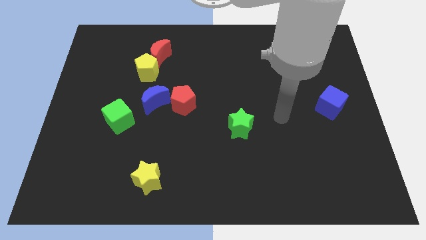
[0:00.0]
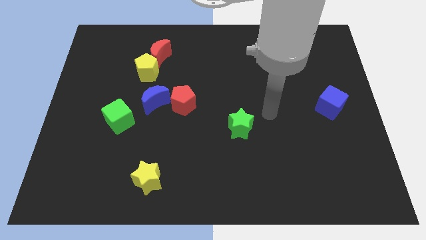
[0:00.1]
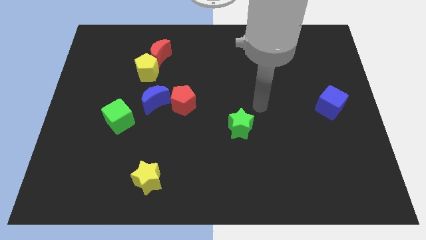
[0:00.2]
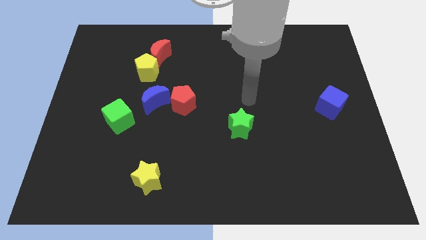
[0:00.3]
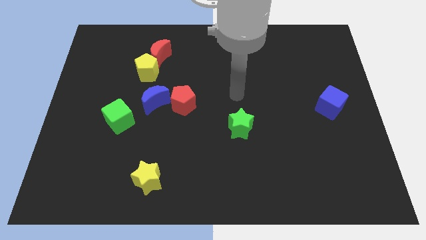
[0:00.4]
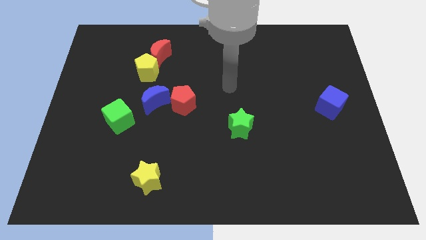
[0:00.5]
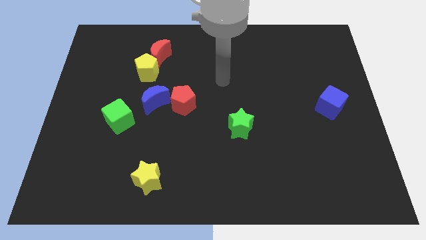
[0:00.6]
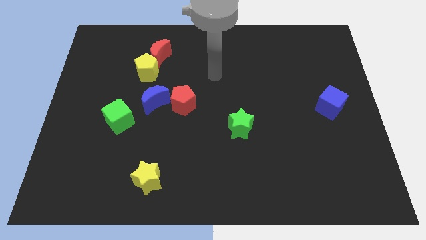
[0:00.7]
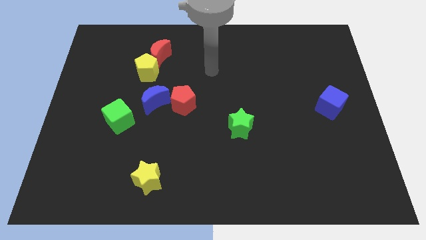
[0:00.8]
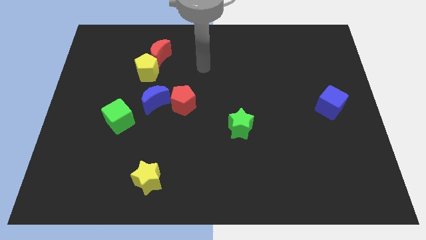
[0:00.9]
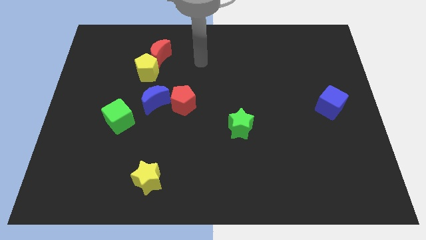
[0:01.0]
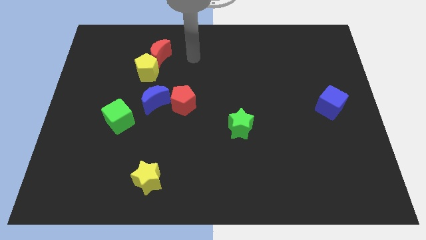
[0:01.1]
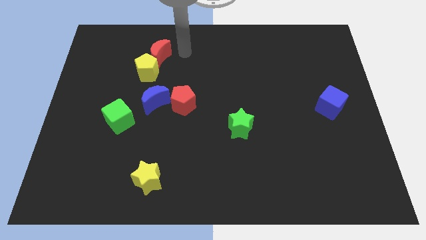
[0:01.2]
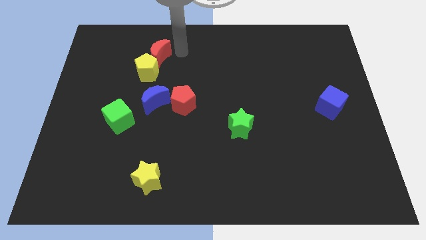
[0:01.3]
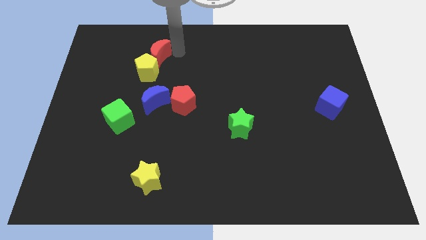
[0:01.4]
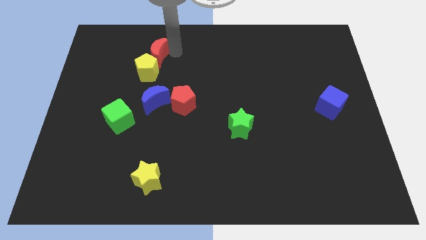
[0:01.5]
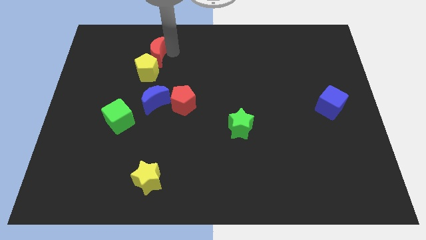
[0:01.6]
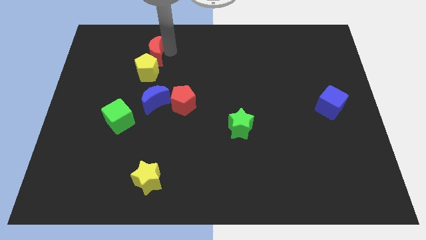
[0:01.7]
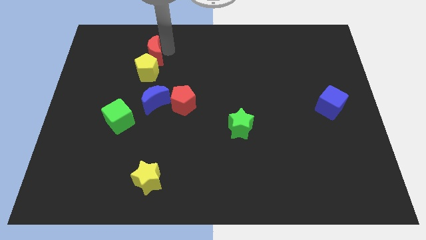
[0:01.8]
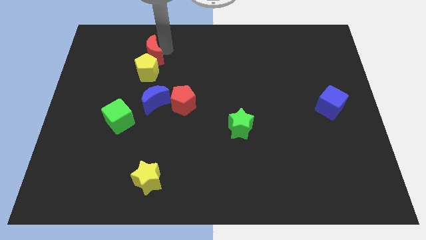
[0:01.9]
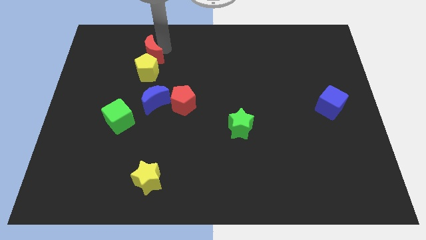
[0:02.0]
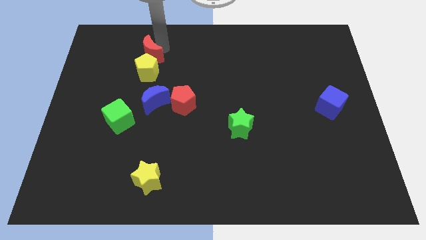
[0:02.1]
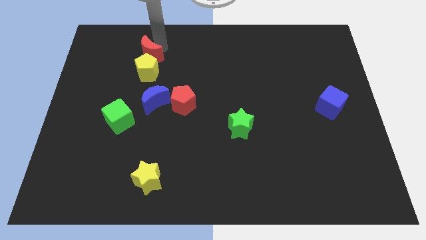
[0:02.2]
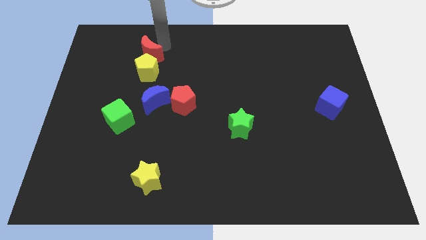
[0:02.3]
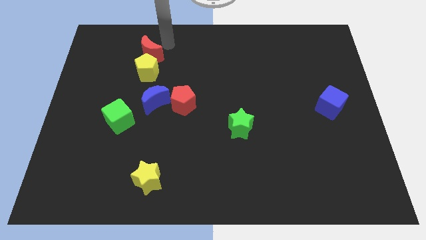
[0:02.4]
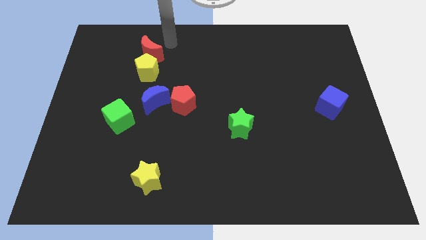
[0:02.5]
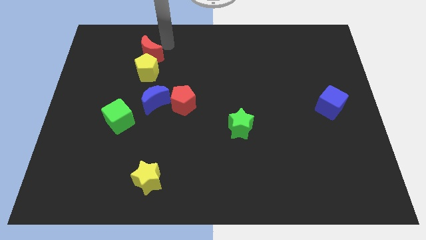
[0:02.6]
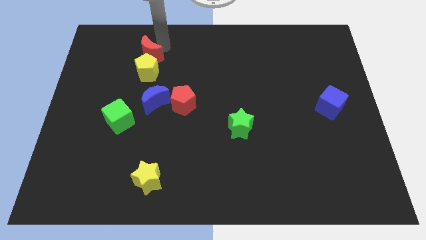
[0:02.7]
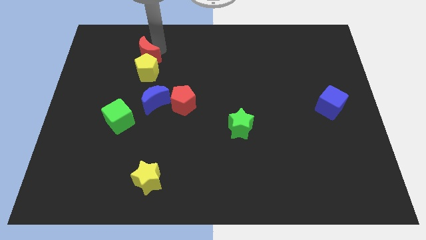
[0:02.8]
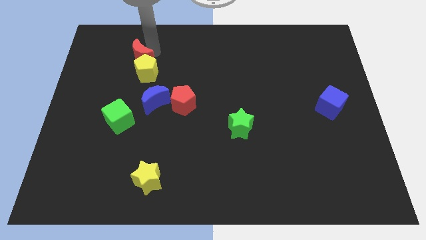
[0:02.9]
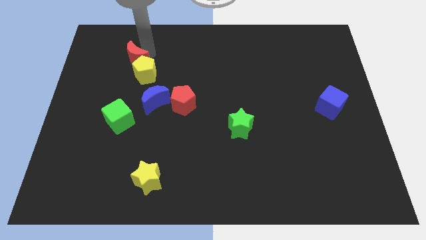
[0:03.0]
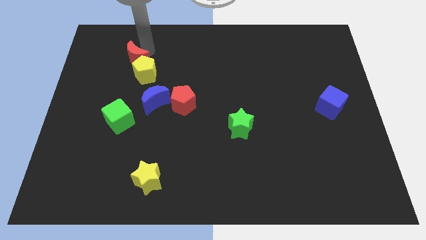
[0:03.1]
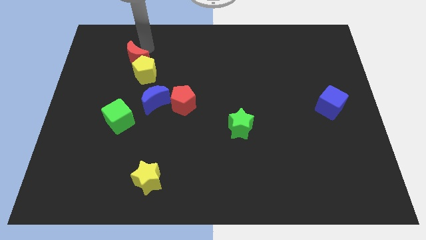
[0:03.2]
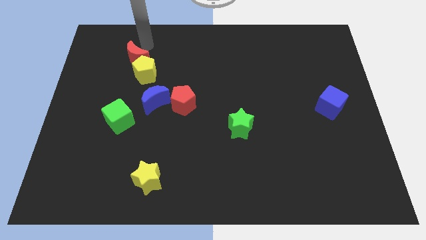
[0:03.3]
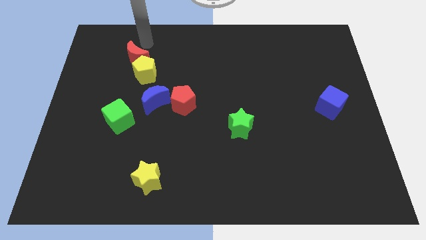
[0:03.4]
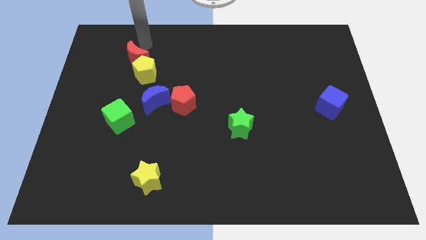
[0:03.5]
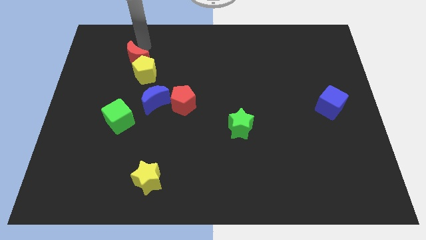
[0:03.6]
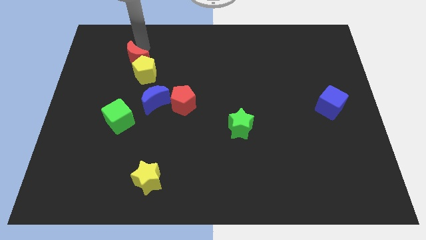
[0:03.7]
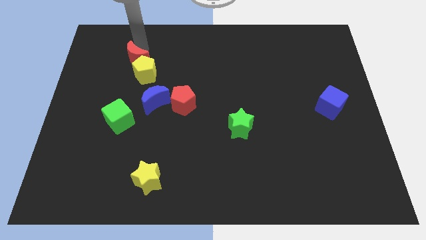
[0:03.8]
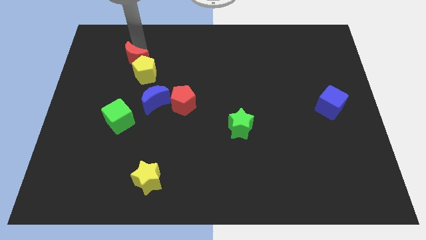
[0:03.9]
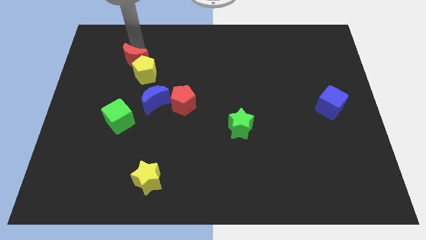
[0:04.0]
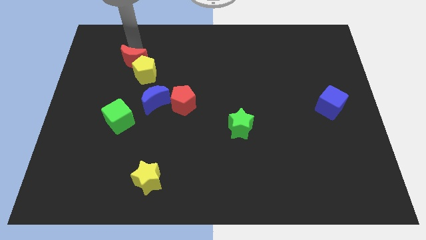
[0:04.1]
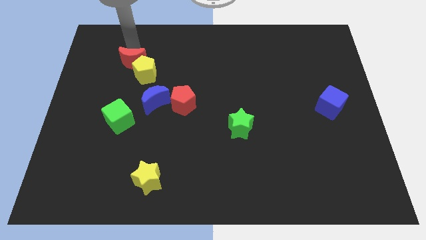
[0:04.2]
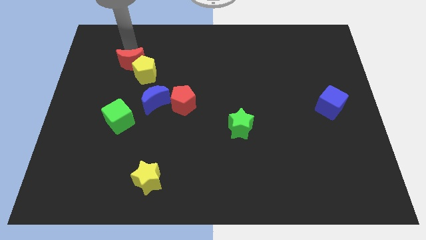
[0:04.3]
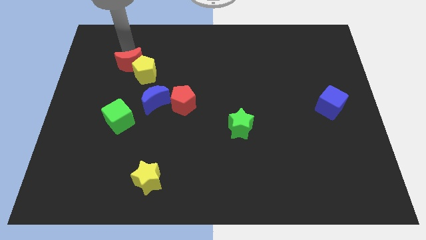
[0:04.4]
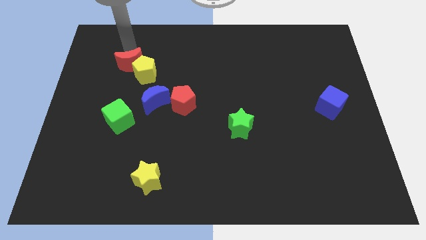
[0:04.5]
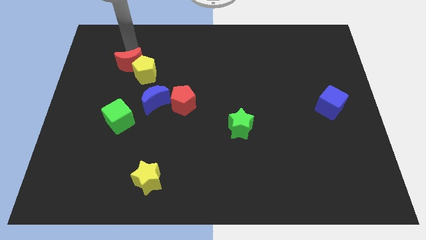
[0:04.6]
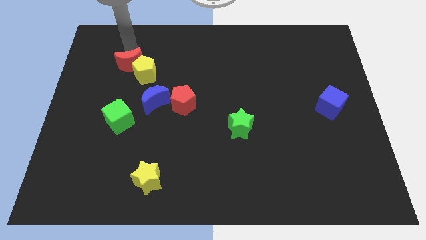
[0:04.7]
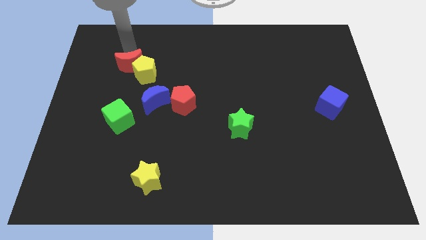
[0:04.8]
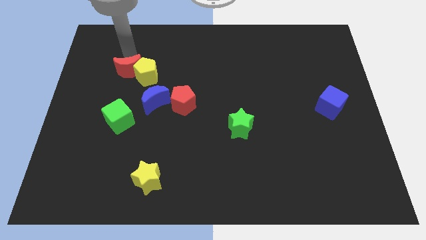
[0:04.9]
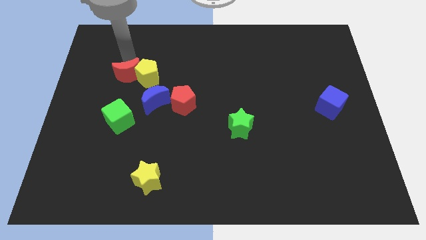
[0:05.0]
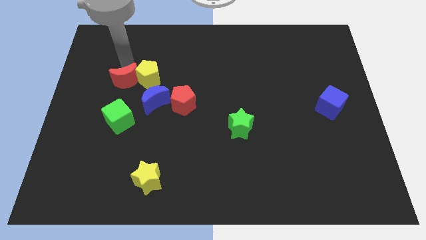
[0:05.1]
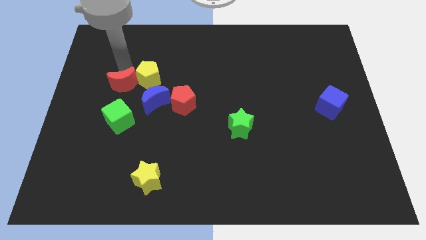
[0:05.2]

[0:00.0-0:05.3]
slide the red moon a bit downwards

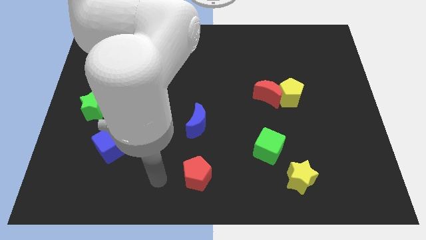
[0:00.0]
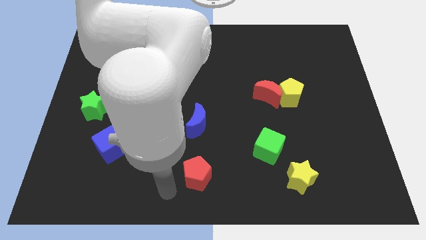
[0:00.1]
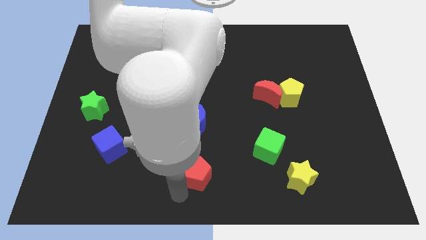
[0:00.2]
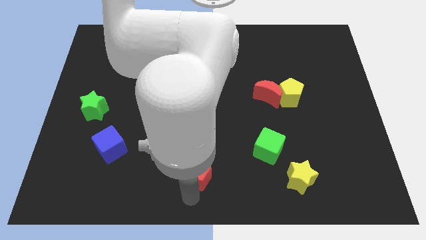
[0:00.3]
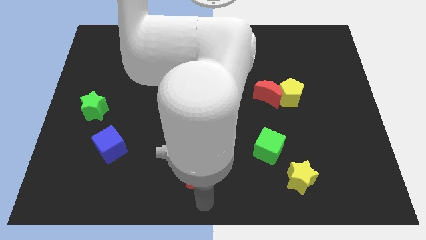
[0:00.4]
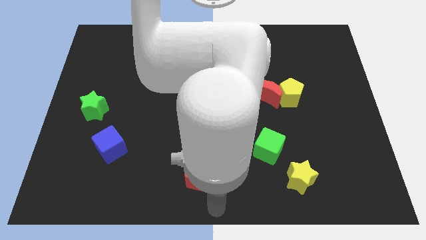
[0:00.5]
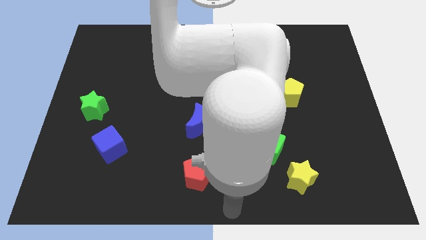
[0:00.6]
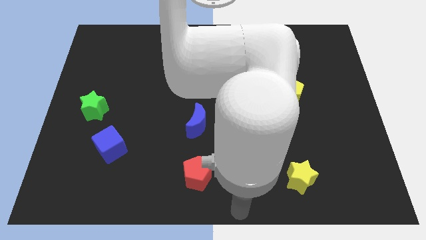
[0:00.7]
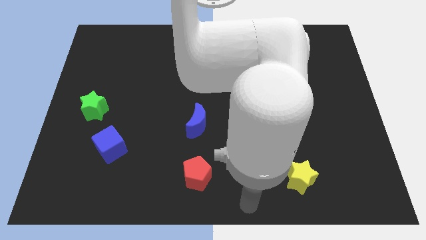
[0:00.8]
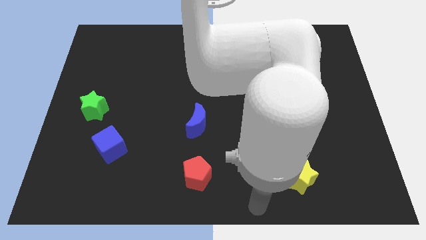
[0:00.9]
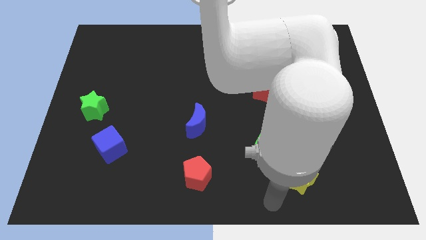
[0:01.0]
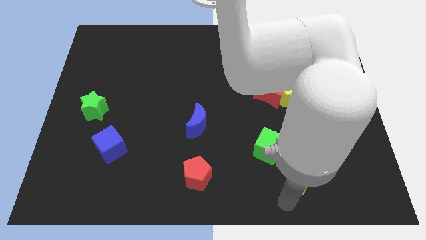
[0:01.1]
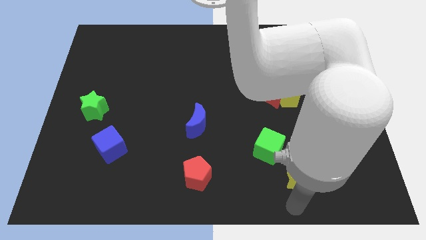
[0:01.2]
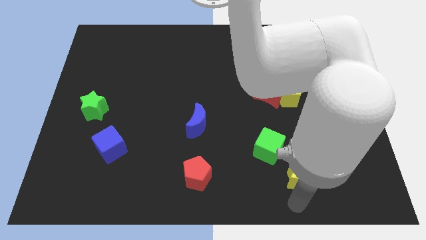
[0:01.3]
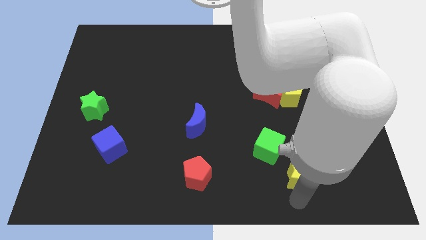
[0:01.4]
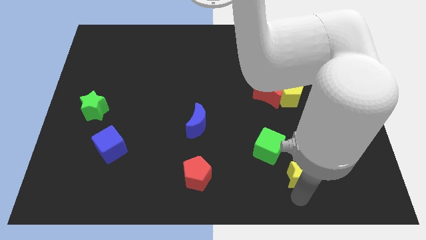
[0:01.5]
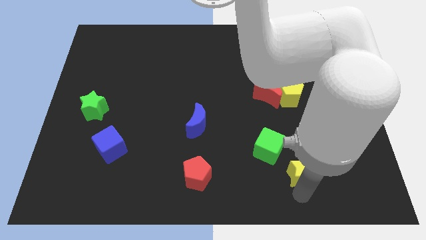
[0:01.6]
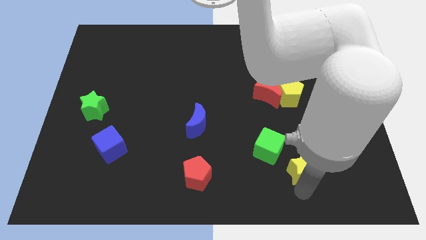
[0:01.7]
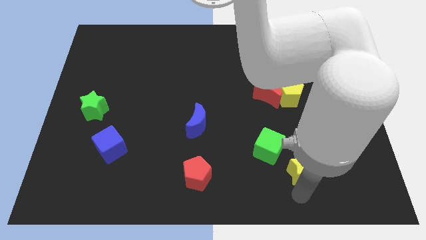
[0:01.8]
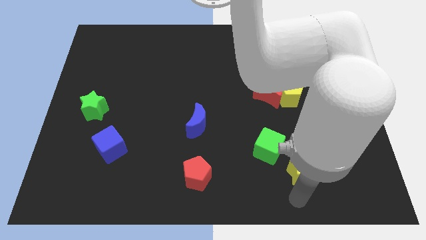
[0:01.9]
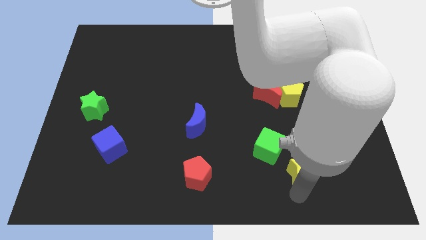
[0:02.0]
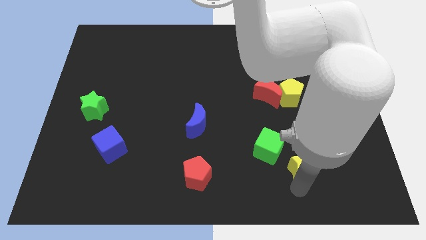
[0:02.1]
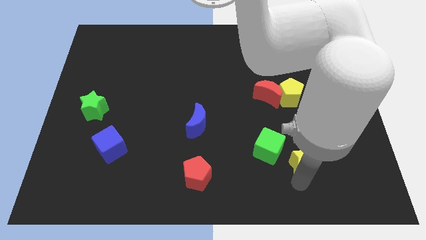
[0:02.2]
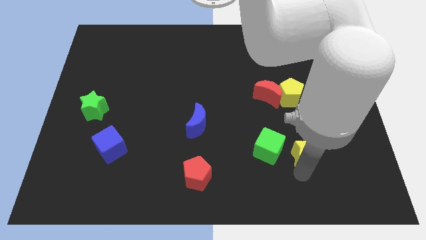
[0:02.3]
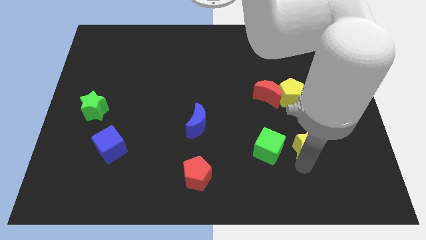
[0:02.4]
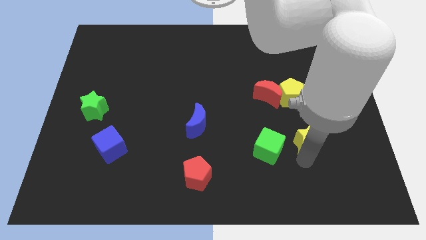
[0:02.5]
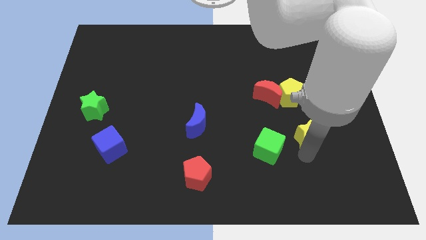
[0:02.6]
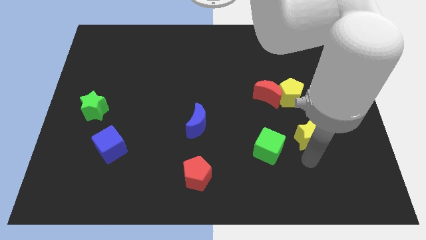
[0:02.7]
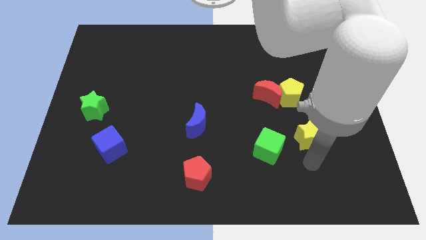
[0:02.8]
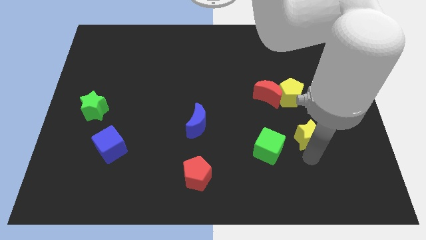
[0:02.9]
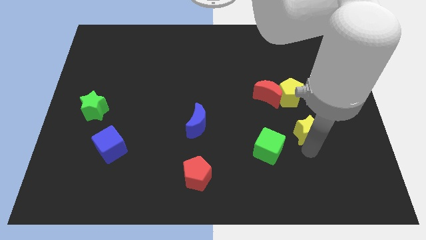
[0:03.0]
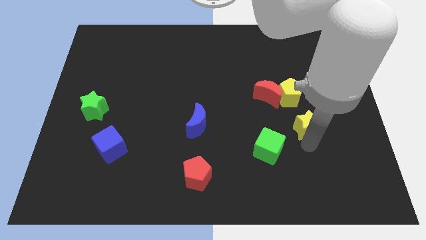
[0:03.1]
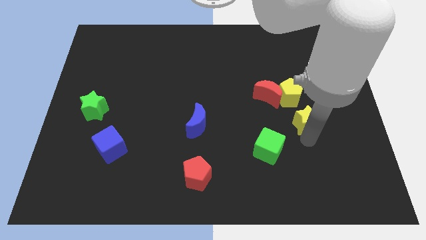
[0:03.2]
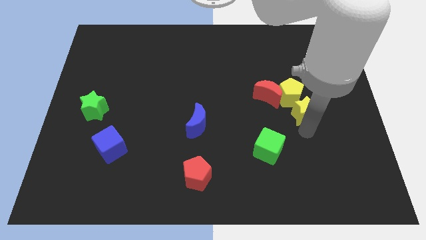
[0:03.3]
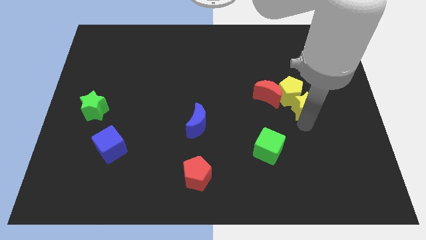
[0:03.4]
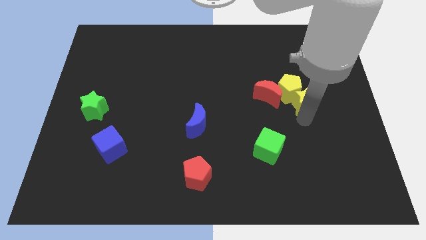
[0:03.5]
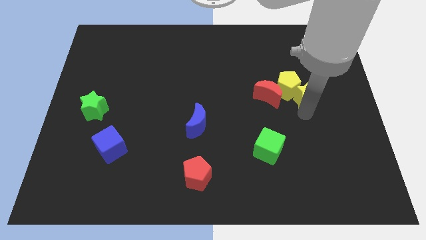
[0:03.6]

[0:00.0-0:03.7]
move the yellow star up
